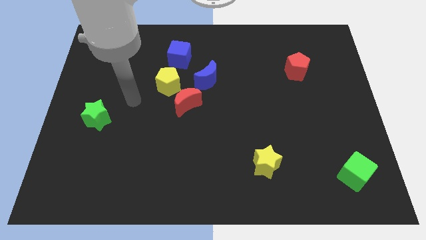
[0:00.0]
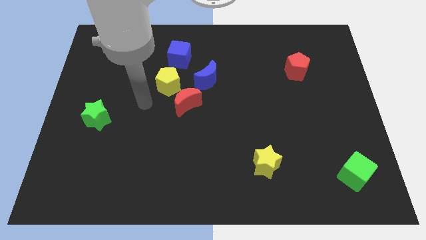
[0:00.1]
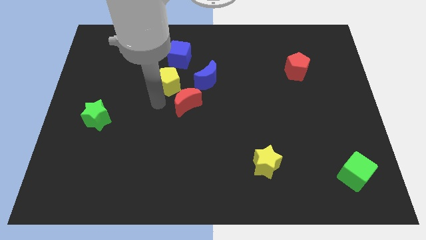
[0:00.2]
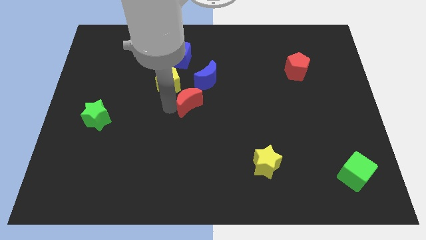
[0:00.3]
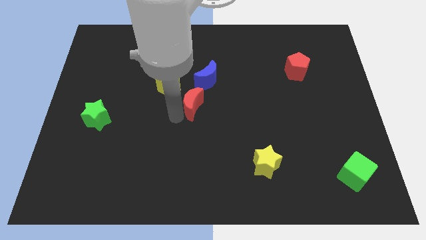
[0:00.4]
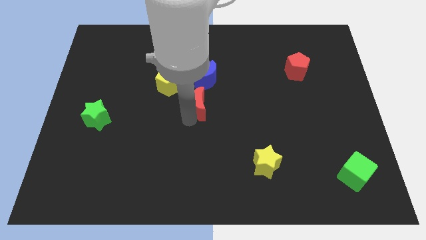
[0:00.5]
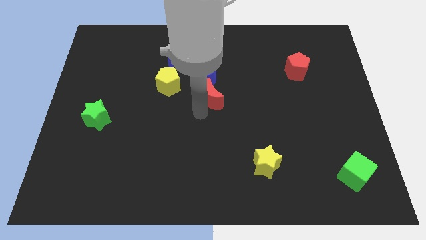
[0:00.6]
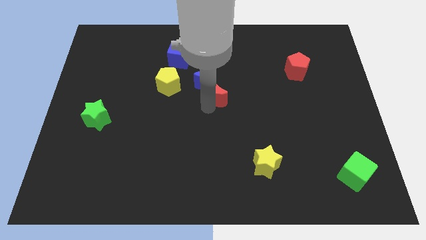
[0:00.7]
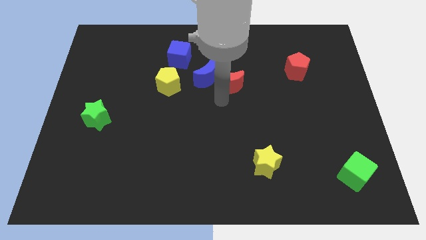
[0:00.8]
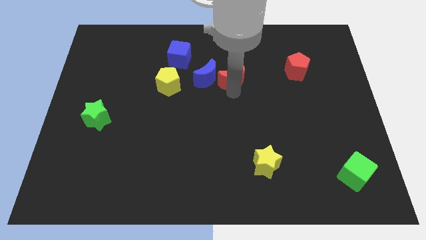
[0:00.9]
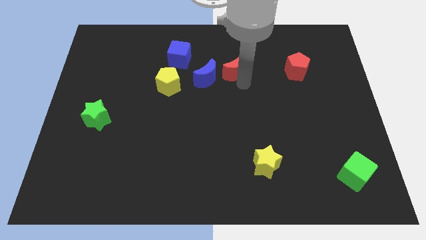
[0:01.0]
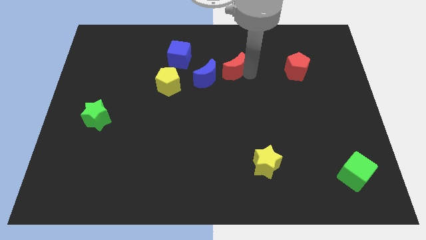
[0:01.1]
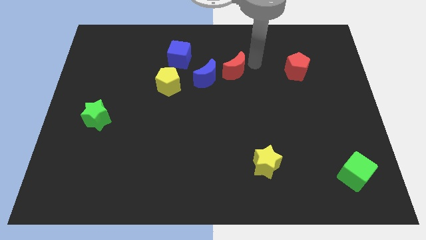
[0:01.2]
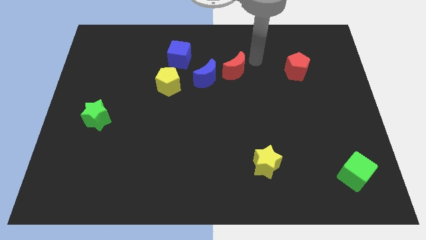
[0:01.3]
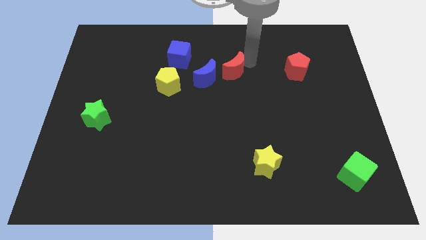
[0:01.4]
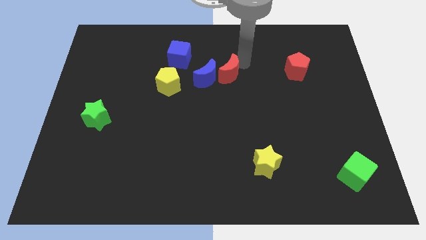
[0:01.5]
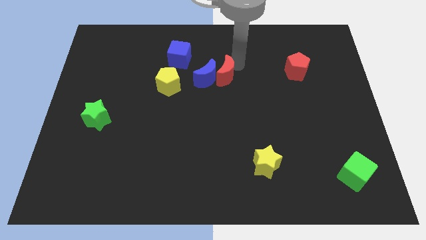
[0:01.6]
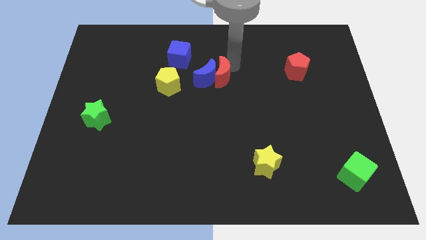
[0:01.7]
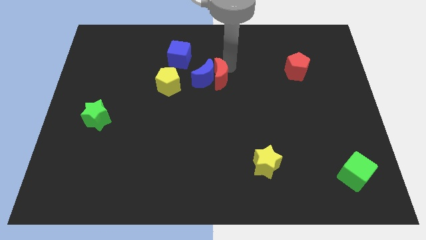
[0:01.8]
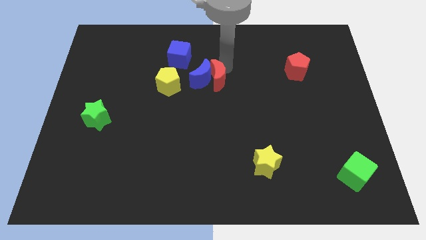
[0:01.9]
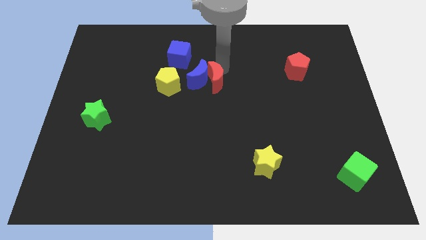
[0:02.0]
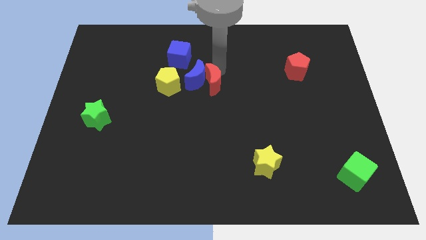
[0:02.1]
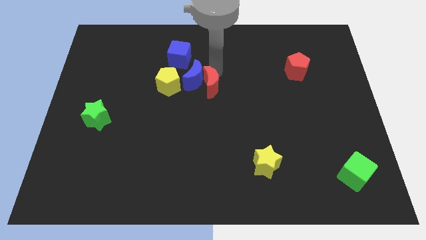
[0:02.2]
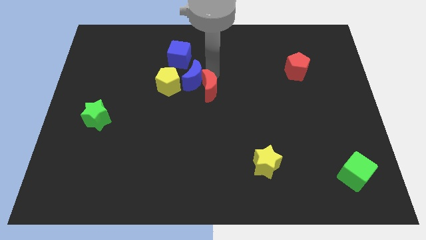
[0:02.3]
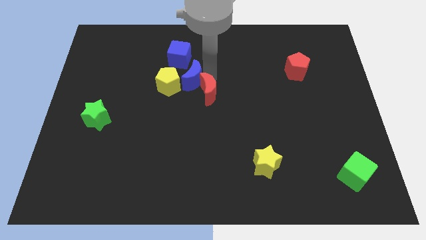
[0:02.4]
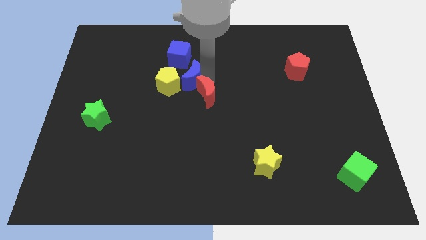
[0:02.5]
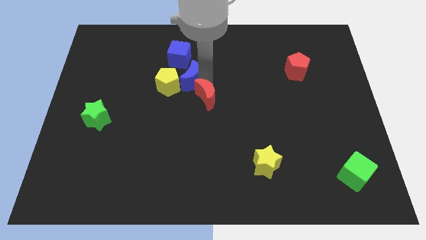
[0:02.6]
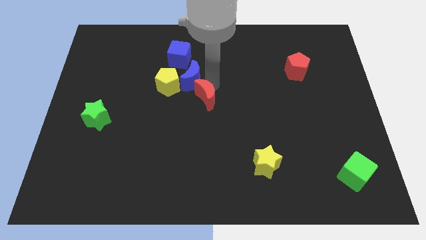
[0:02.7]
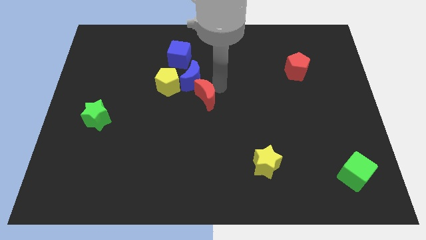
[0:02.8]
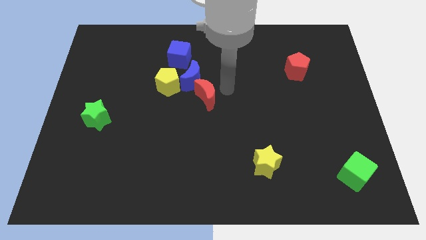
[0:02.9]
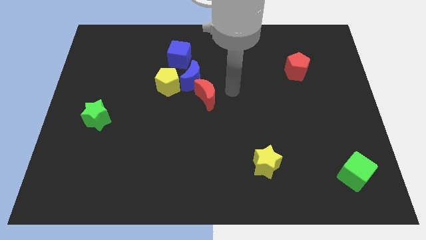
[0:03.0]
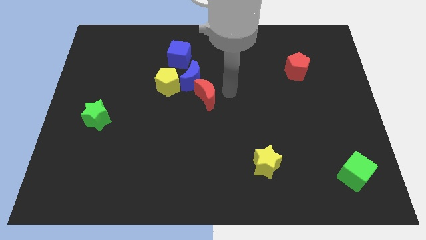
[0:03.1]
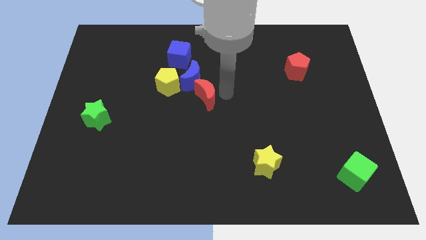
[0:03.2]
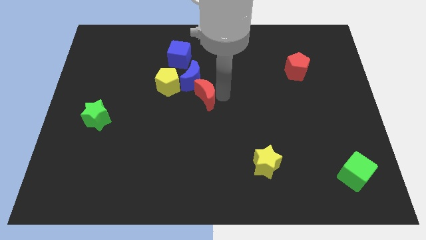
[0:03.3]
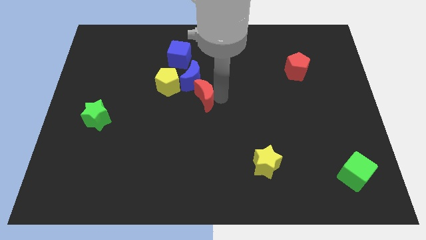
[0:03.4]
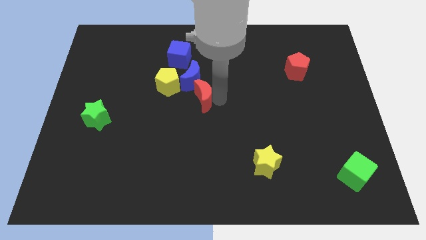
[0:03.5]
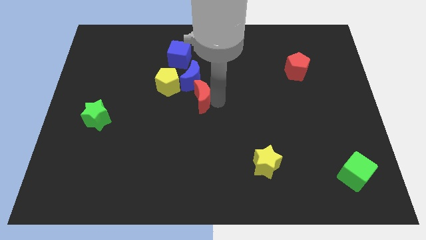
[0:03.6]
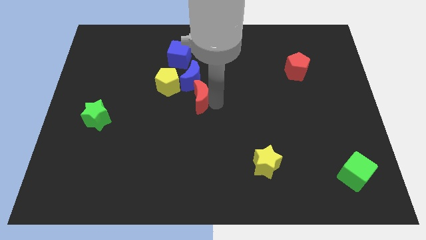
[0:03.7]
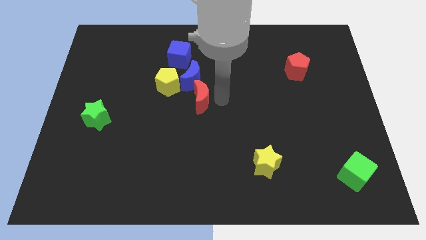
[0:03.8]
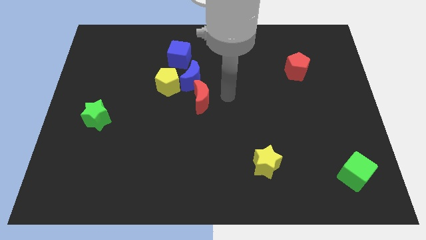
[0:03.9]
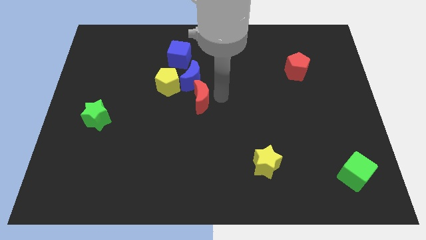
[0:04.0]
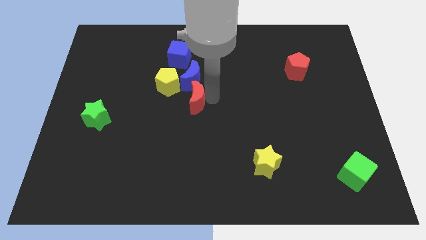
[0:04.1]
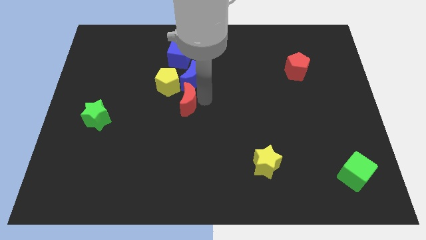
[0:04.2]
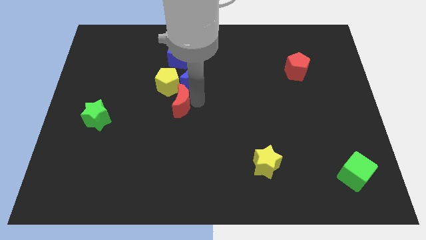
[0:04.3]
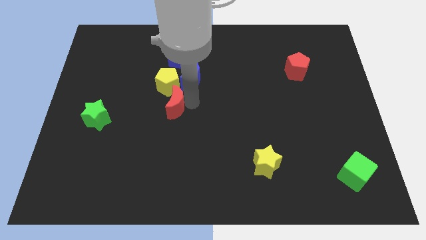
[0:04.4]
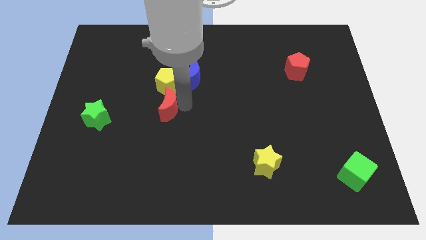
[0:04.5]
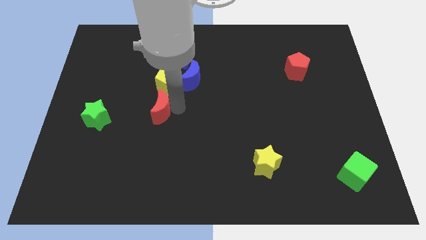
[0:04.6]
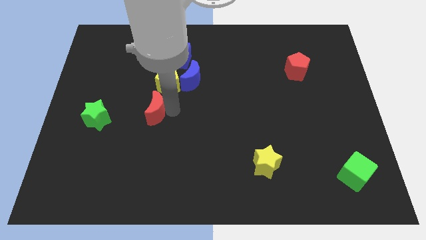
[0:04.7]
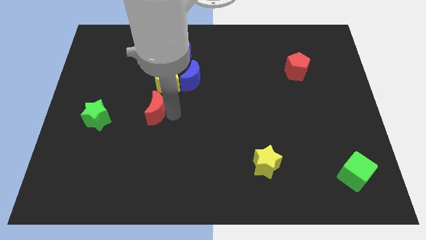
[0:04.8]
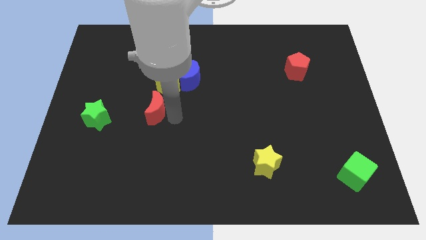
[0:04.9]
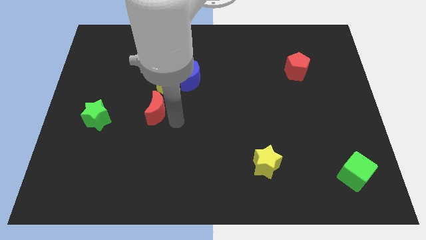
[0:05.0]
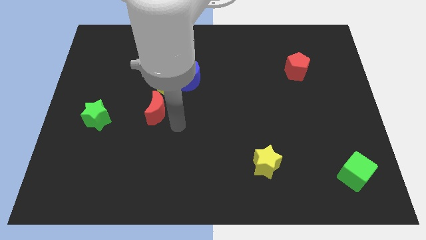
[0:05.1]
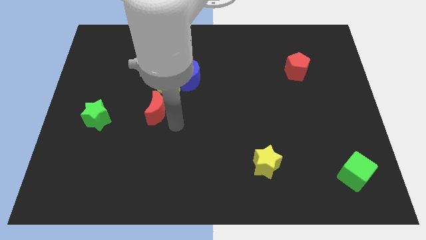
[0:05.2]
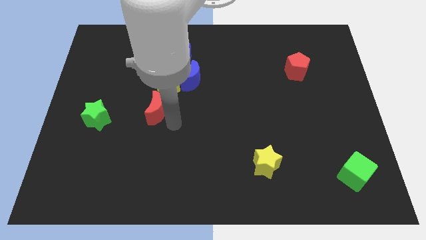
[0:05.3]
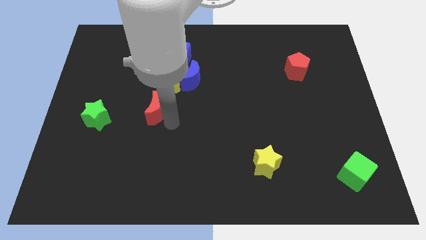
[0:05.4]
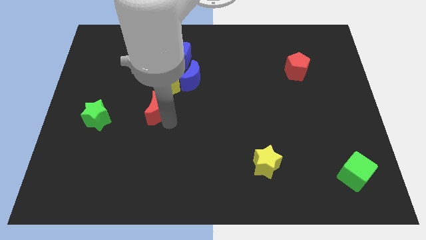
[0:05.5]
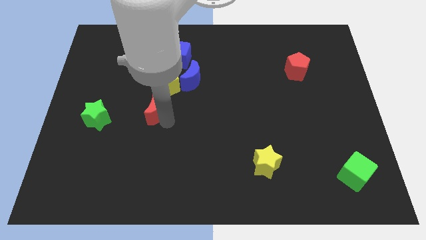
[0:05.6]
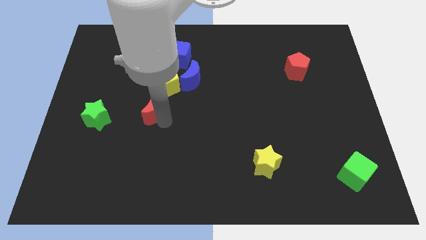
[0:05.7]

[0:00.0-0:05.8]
slightly move the red moon left

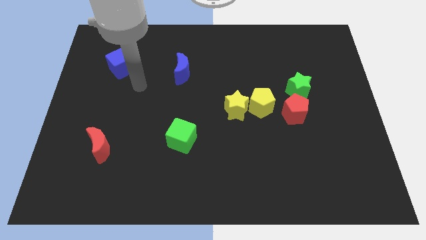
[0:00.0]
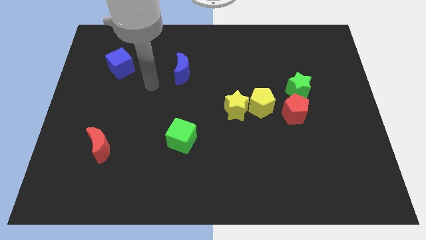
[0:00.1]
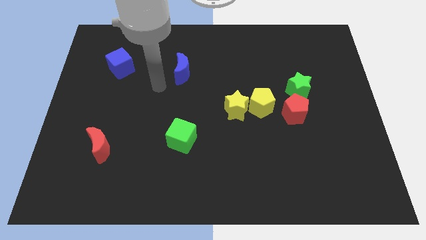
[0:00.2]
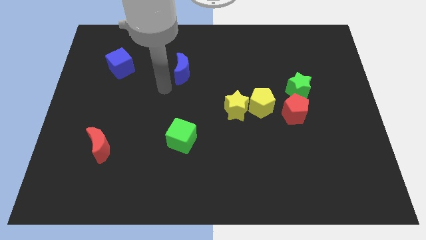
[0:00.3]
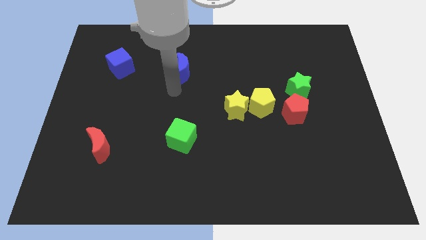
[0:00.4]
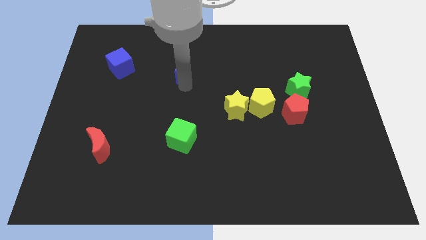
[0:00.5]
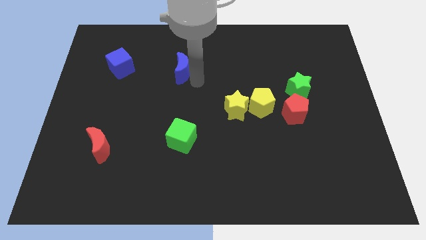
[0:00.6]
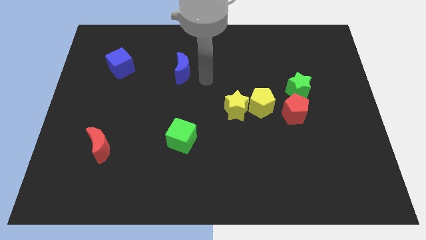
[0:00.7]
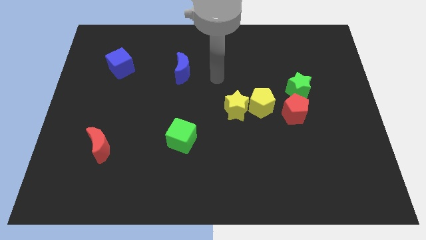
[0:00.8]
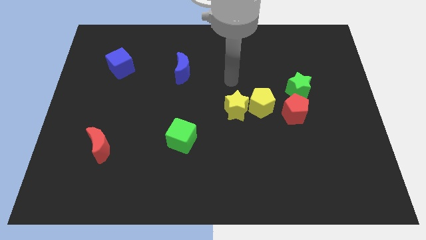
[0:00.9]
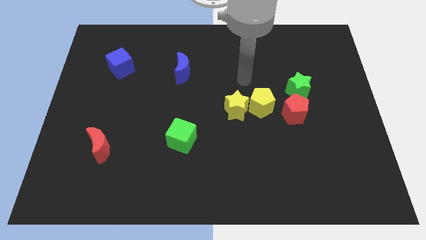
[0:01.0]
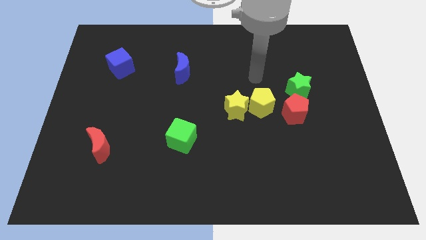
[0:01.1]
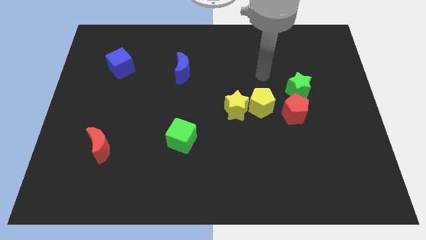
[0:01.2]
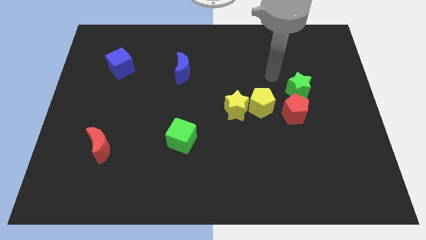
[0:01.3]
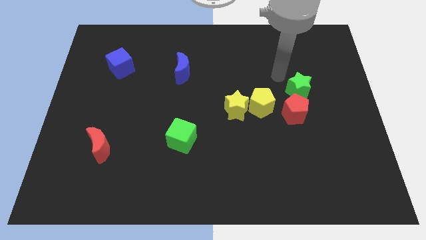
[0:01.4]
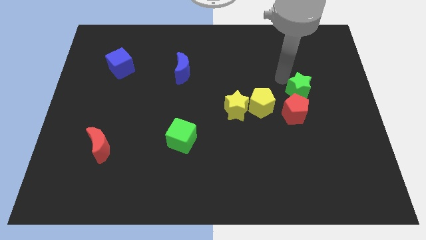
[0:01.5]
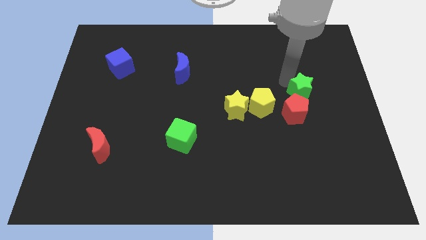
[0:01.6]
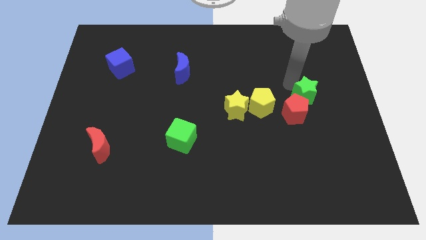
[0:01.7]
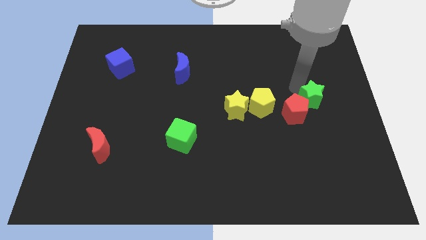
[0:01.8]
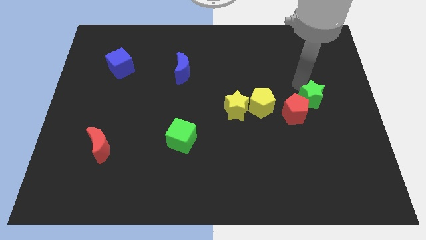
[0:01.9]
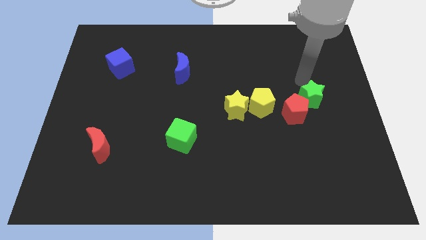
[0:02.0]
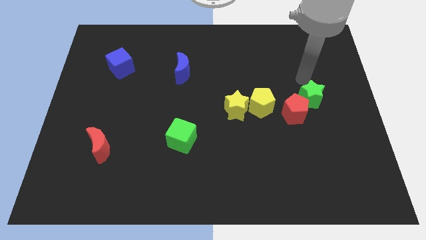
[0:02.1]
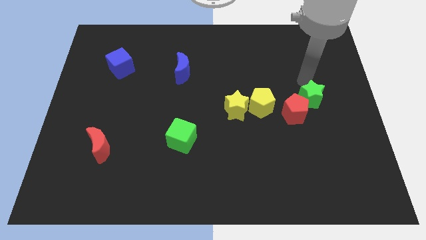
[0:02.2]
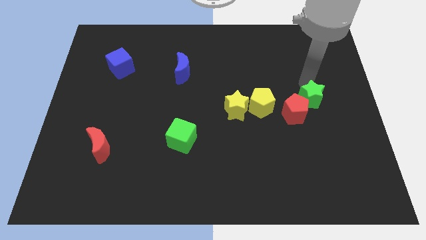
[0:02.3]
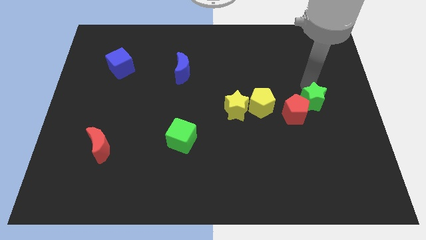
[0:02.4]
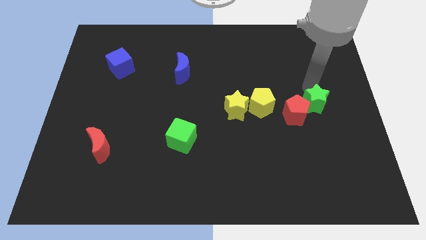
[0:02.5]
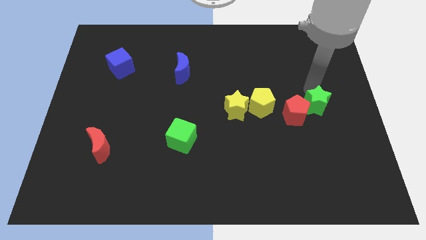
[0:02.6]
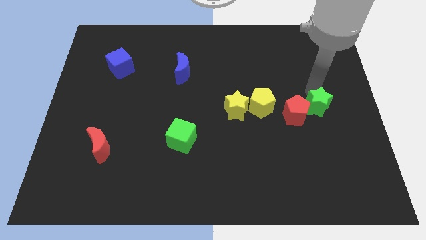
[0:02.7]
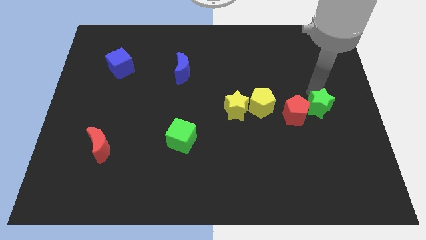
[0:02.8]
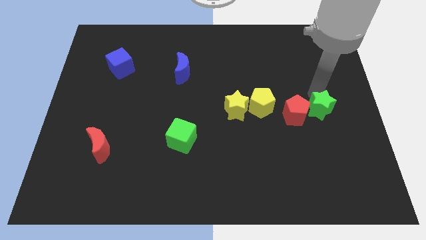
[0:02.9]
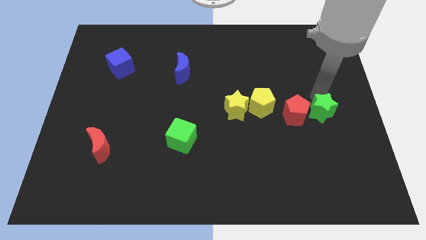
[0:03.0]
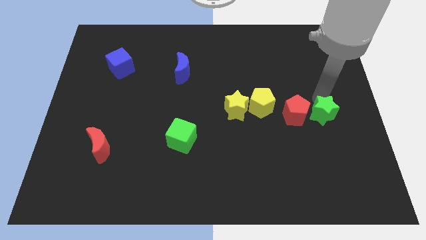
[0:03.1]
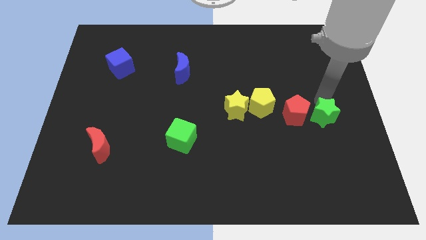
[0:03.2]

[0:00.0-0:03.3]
slightly move the green star downwards
